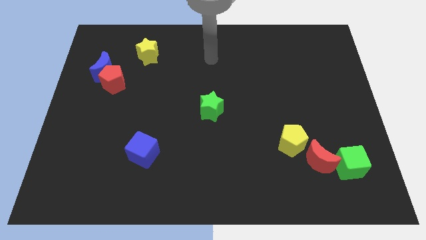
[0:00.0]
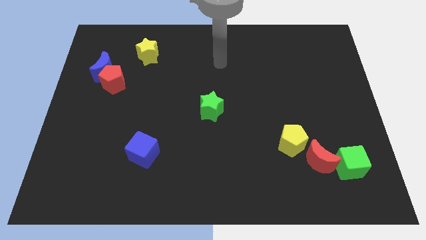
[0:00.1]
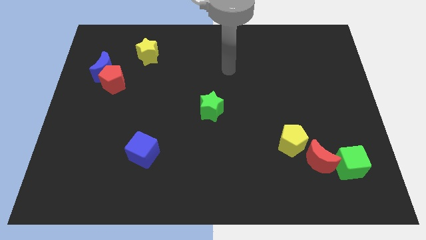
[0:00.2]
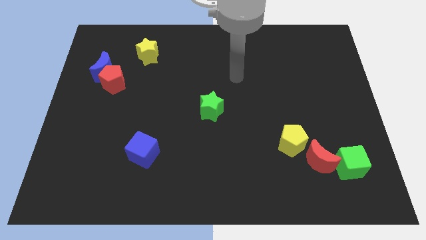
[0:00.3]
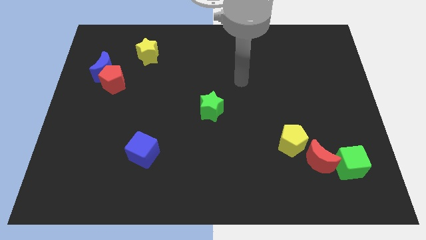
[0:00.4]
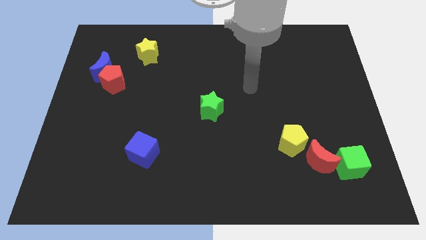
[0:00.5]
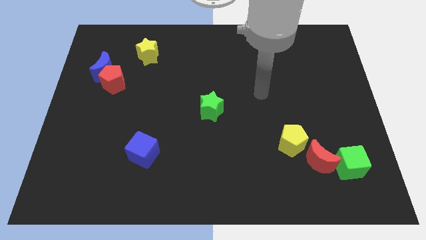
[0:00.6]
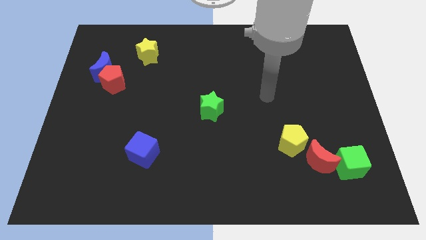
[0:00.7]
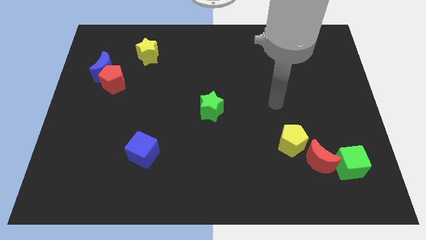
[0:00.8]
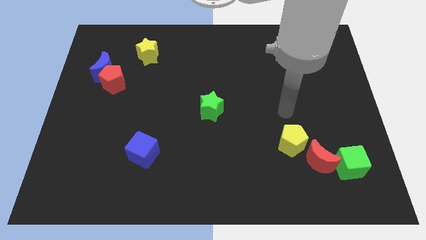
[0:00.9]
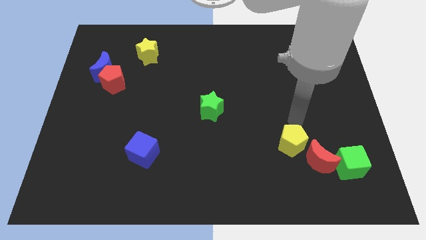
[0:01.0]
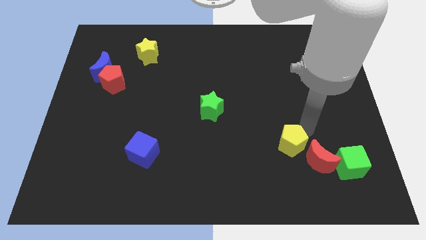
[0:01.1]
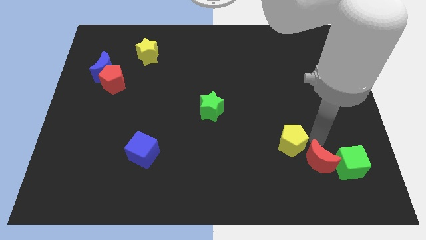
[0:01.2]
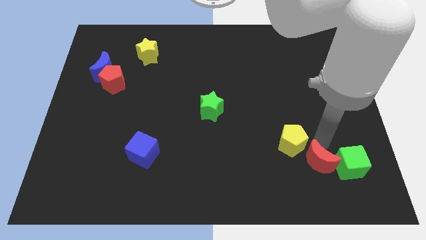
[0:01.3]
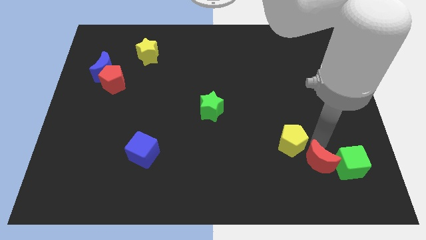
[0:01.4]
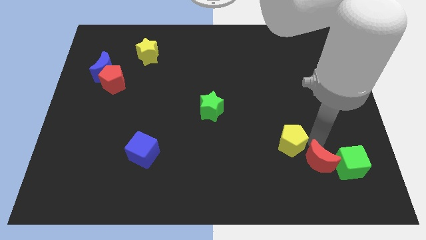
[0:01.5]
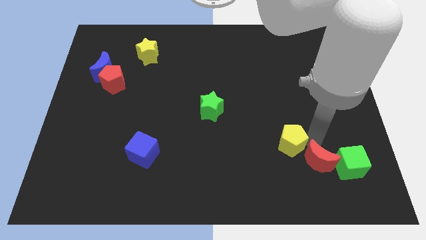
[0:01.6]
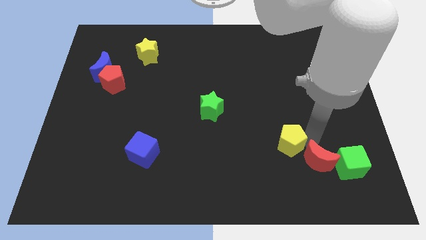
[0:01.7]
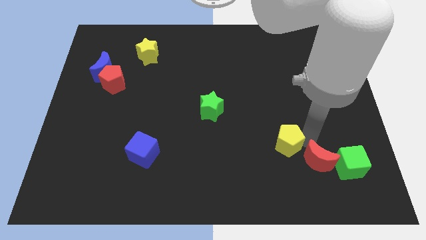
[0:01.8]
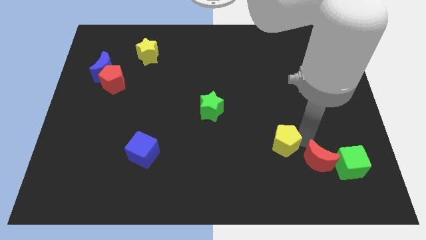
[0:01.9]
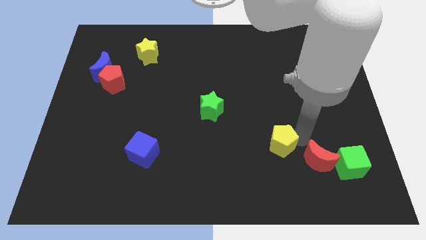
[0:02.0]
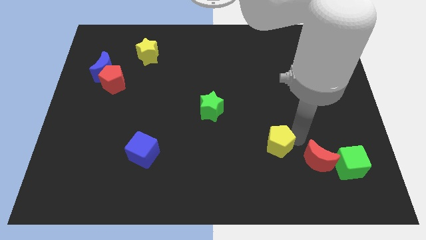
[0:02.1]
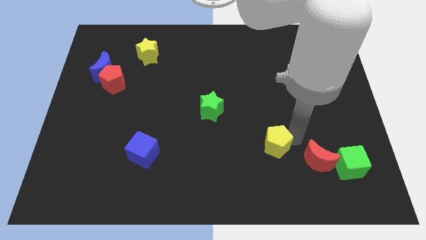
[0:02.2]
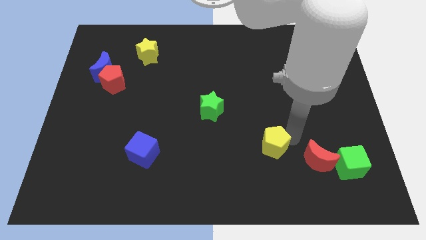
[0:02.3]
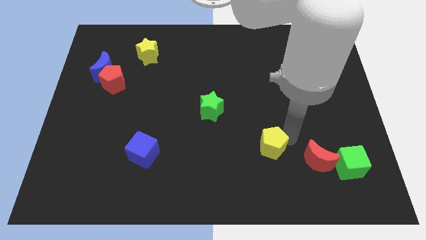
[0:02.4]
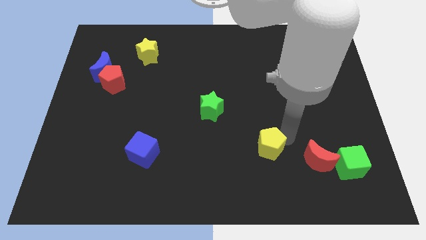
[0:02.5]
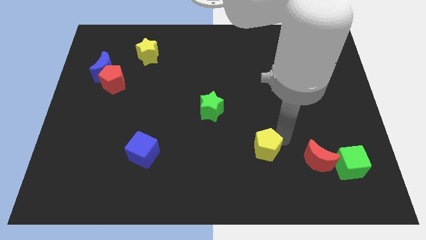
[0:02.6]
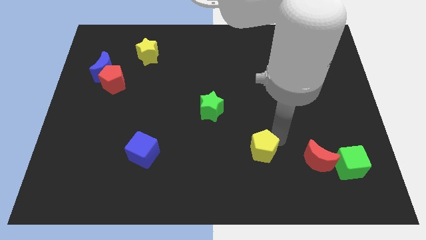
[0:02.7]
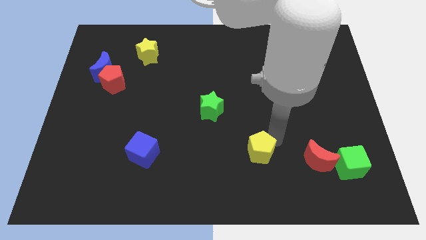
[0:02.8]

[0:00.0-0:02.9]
slightly push the yellow pentagon left

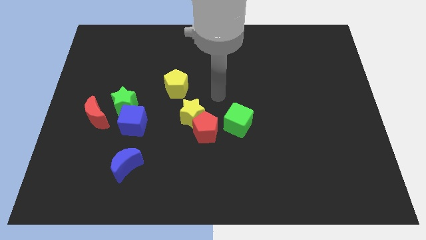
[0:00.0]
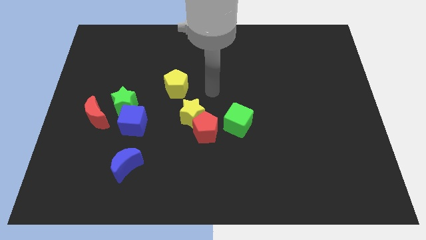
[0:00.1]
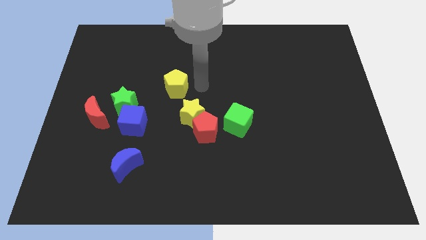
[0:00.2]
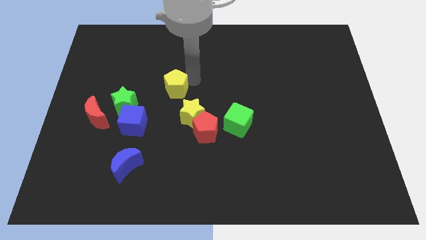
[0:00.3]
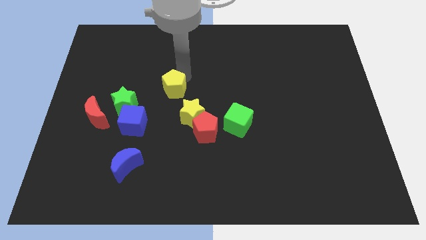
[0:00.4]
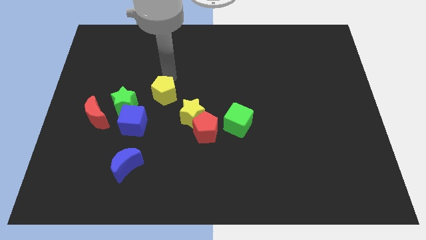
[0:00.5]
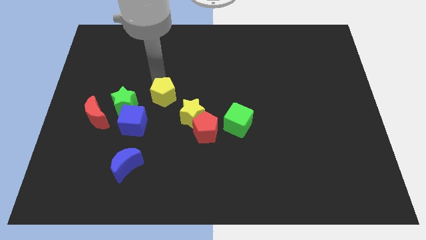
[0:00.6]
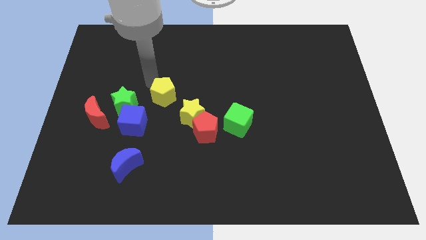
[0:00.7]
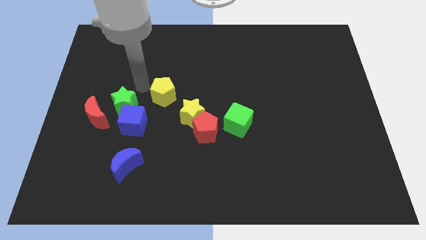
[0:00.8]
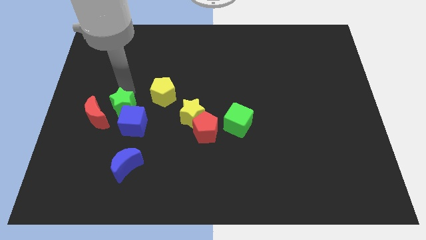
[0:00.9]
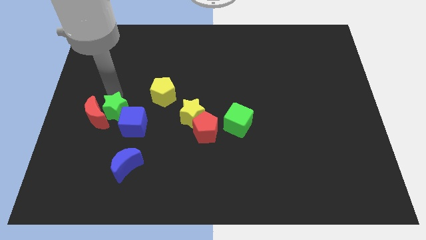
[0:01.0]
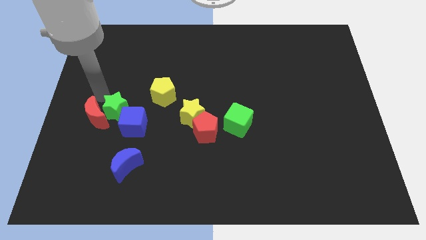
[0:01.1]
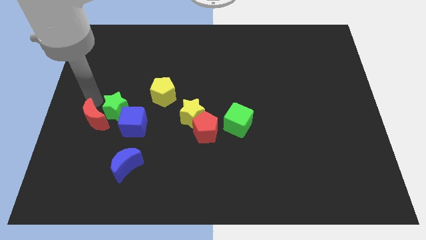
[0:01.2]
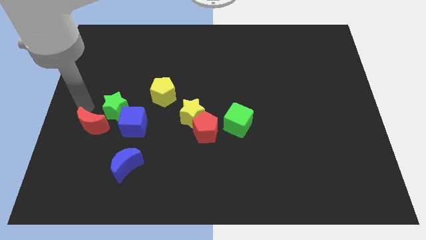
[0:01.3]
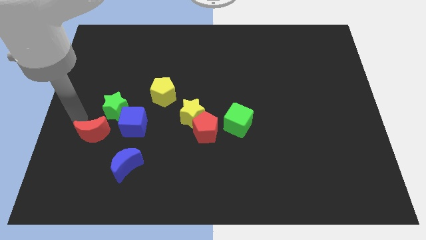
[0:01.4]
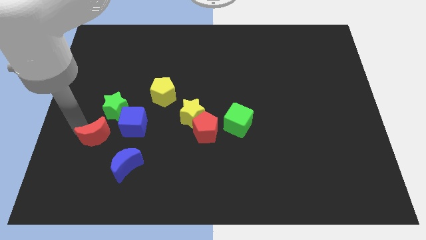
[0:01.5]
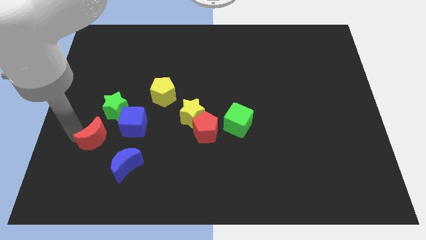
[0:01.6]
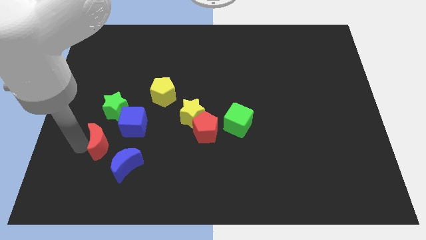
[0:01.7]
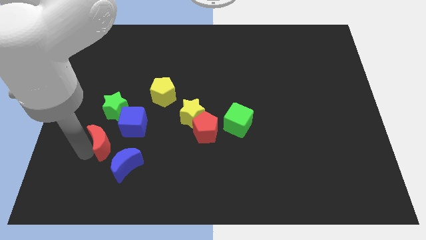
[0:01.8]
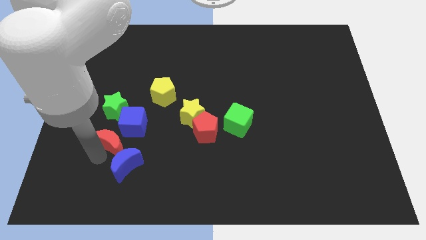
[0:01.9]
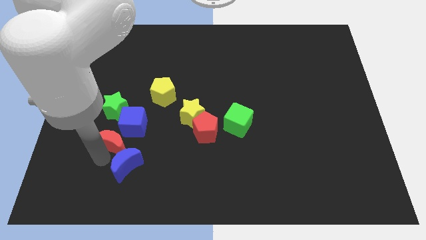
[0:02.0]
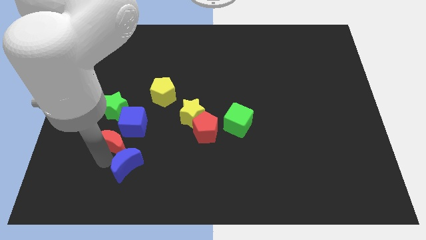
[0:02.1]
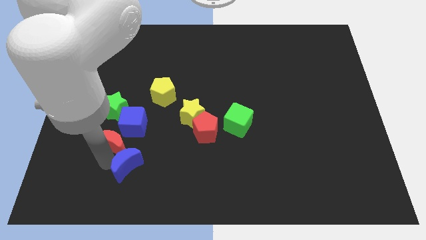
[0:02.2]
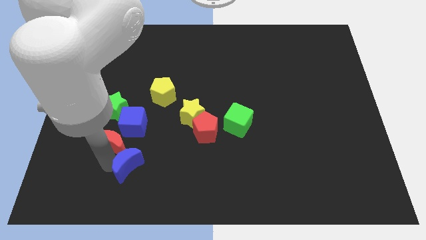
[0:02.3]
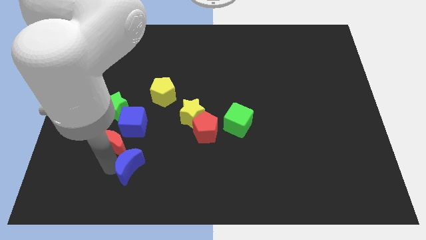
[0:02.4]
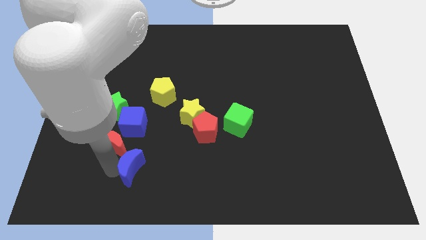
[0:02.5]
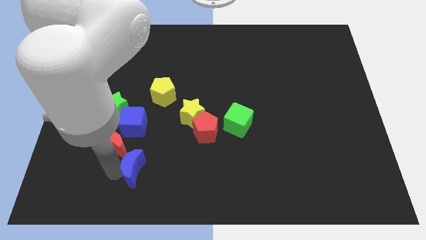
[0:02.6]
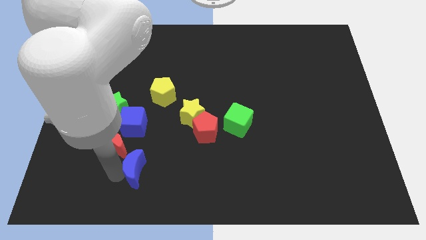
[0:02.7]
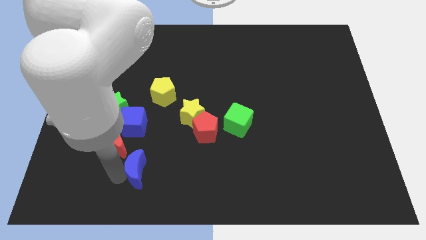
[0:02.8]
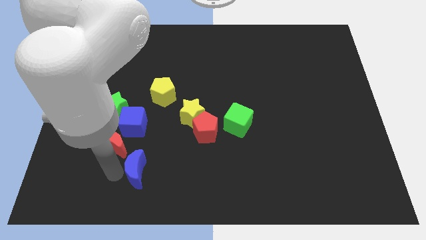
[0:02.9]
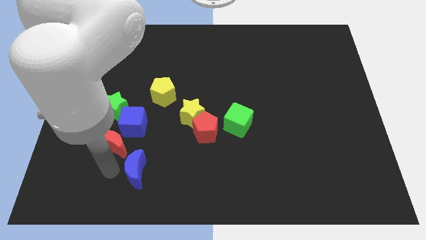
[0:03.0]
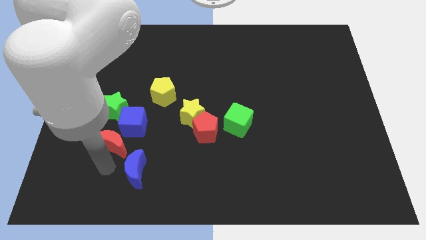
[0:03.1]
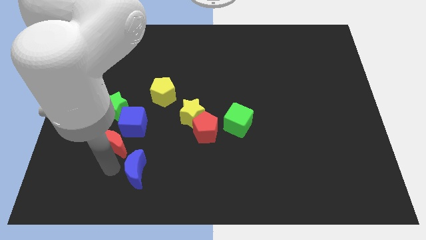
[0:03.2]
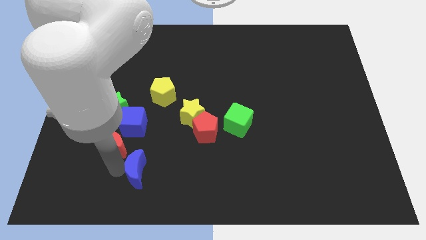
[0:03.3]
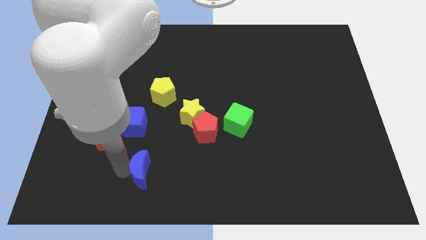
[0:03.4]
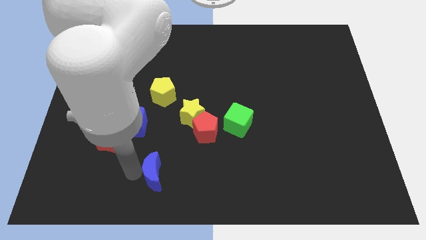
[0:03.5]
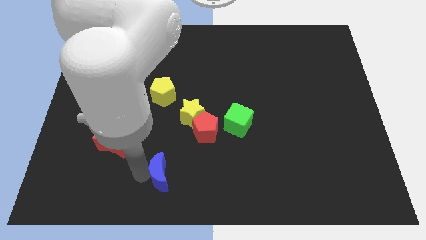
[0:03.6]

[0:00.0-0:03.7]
move the blue moon somewhat to the right

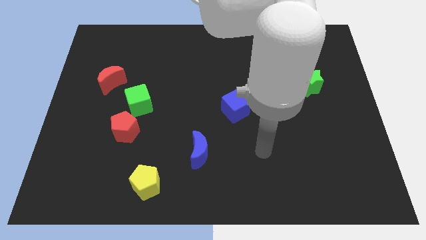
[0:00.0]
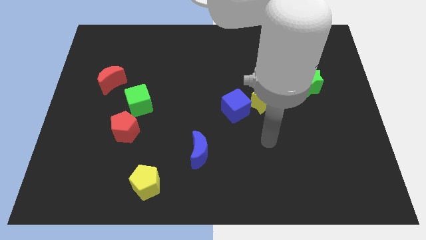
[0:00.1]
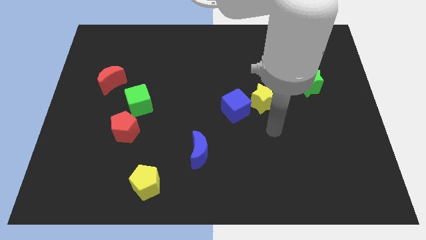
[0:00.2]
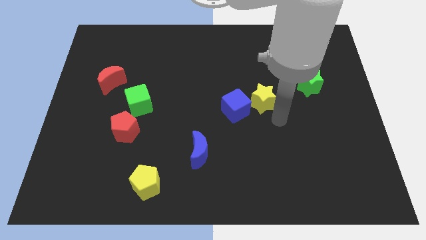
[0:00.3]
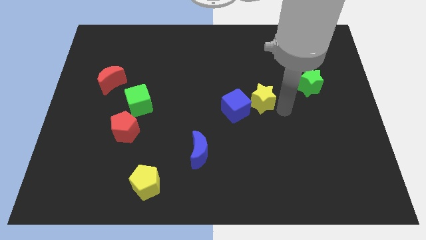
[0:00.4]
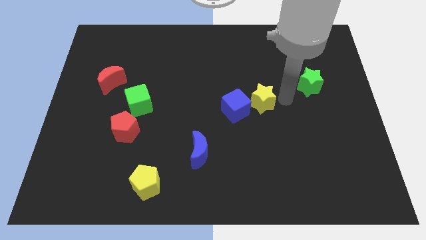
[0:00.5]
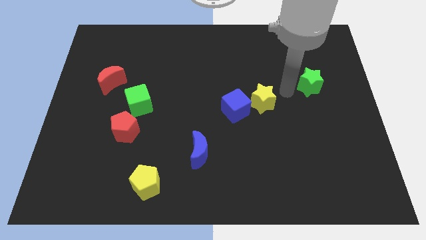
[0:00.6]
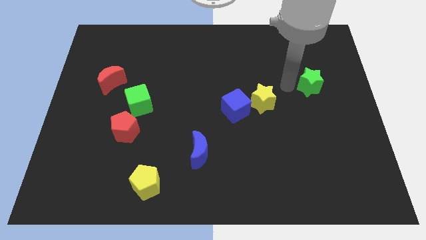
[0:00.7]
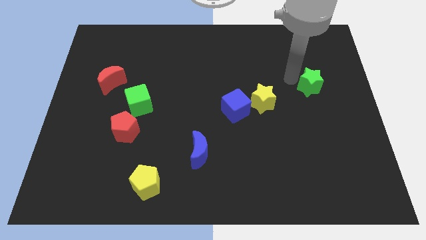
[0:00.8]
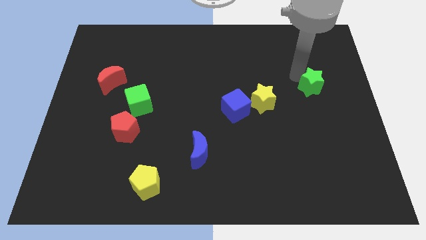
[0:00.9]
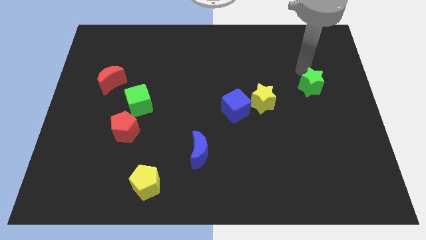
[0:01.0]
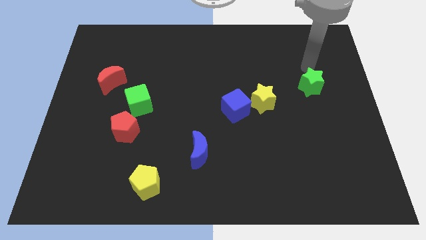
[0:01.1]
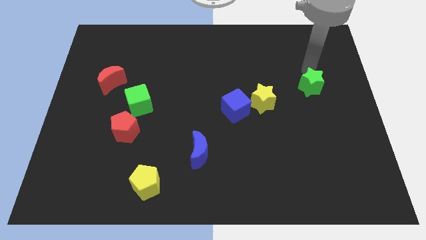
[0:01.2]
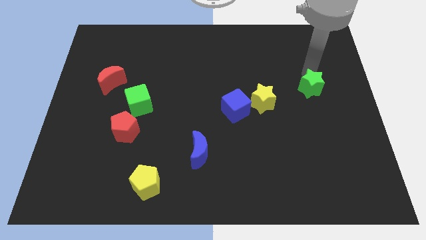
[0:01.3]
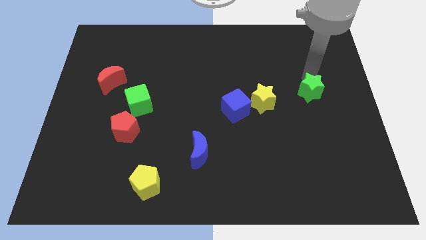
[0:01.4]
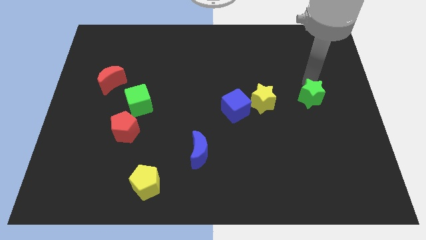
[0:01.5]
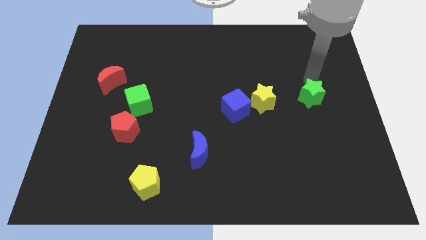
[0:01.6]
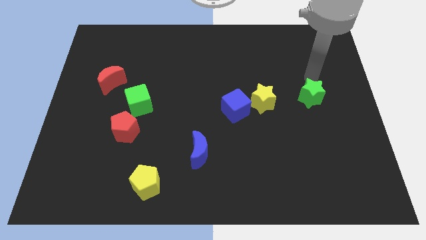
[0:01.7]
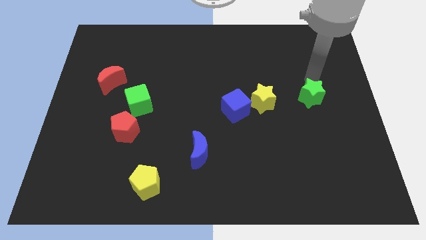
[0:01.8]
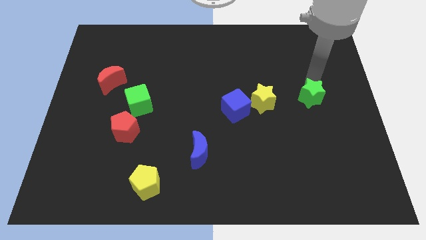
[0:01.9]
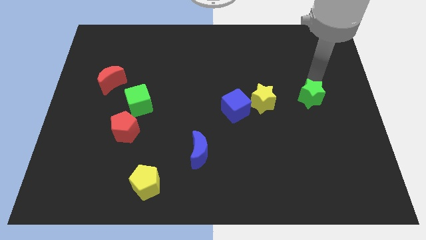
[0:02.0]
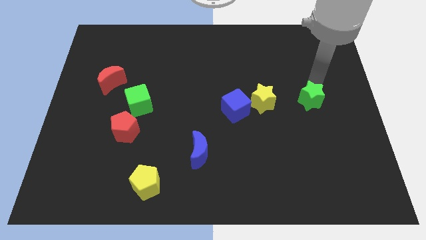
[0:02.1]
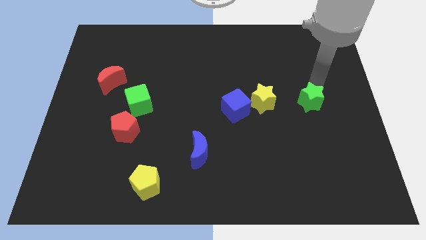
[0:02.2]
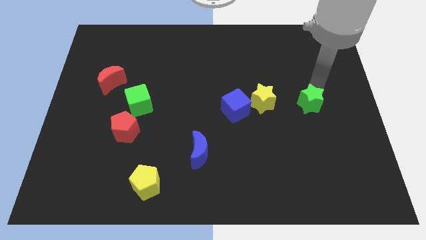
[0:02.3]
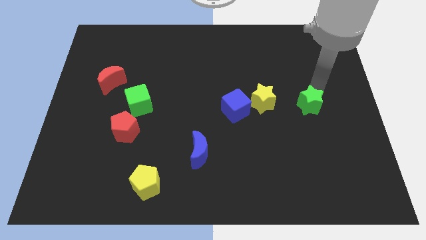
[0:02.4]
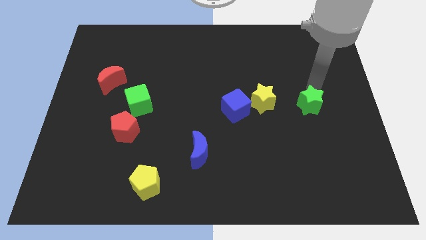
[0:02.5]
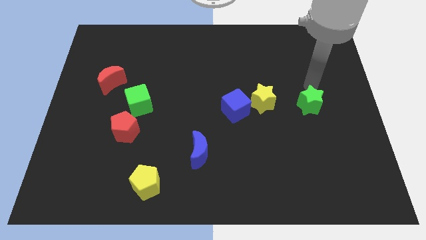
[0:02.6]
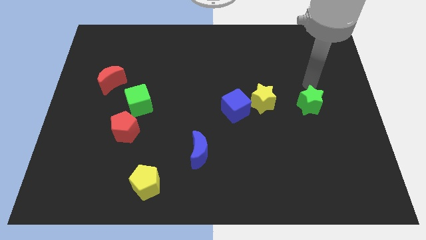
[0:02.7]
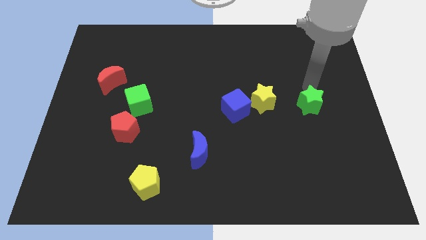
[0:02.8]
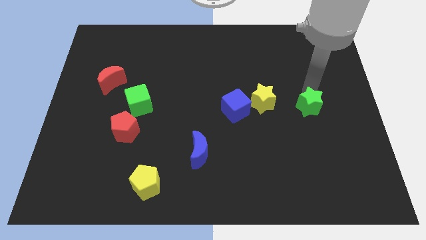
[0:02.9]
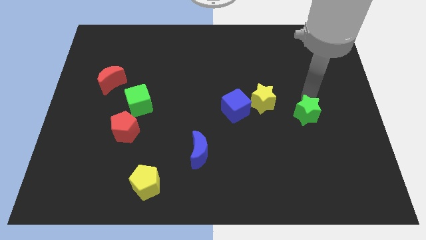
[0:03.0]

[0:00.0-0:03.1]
slightly push the green star down
